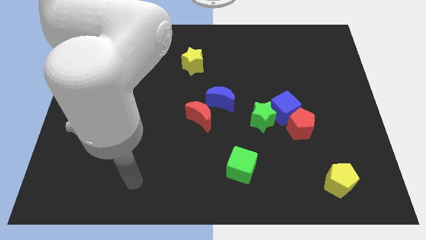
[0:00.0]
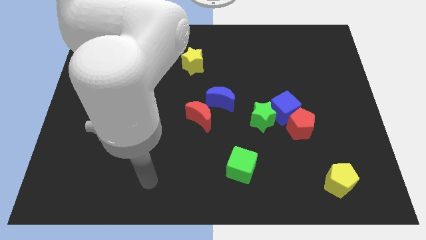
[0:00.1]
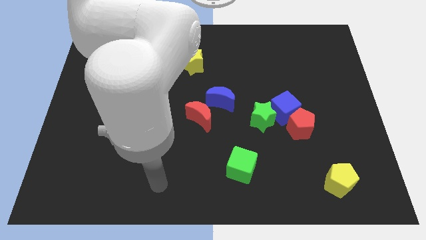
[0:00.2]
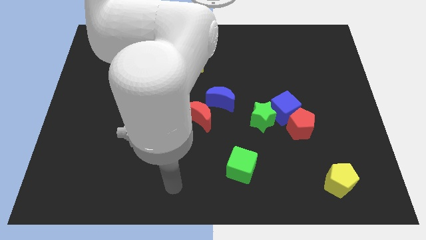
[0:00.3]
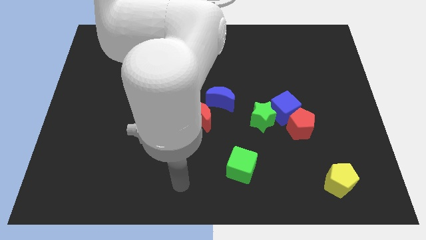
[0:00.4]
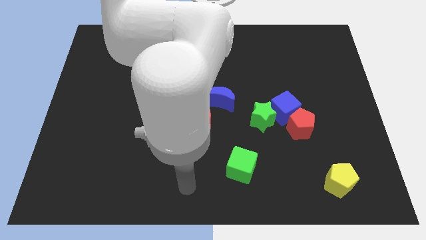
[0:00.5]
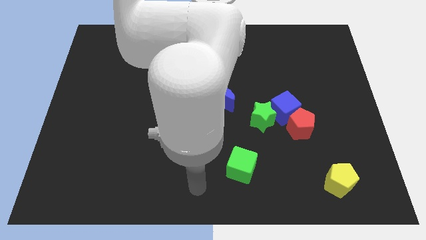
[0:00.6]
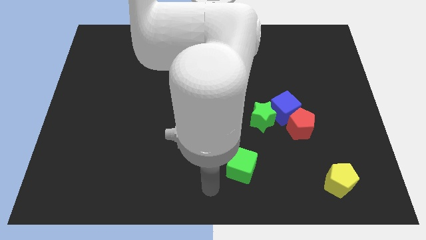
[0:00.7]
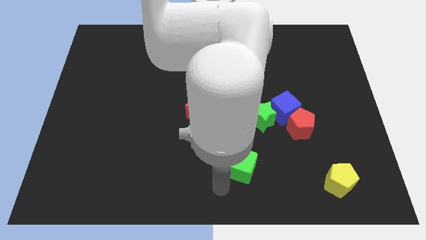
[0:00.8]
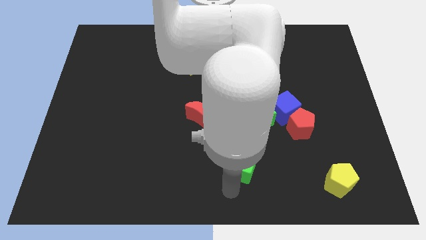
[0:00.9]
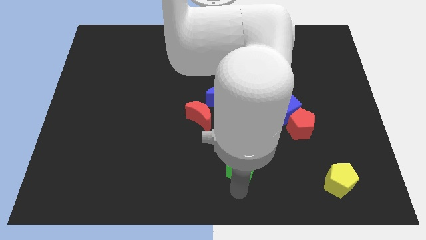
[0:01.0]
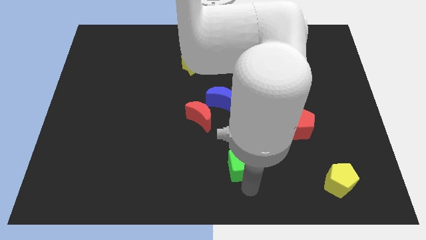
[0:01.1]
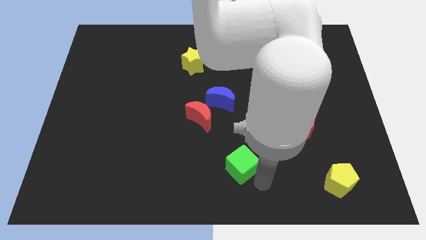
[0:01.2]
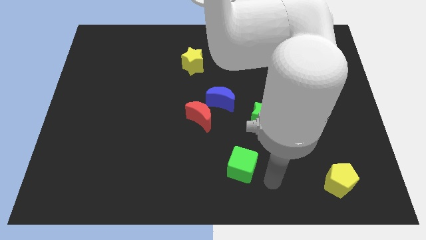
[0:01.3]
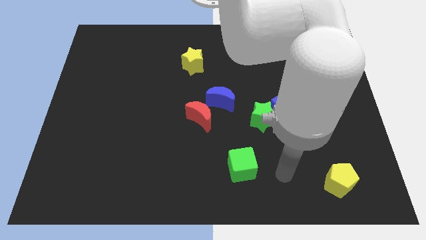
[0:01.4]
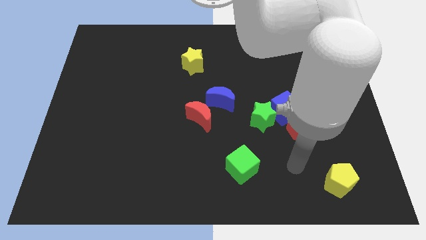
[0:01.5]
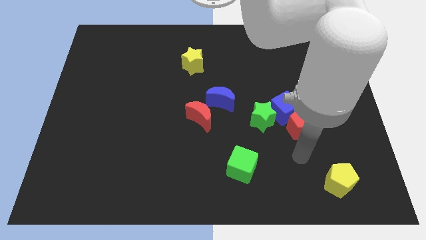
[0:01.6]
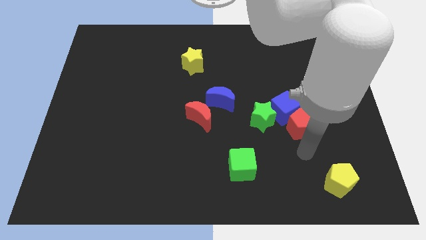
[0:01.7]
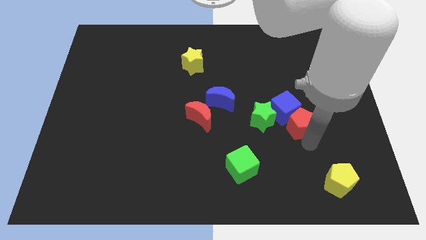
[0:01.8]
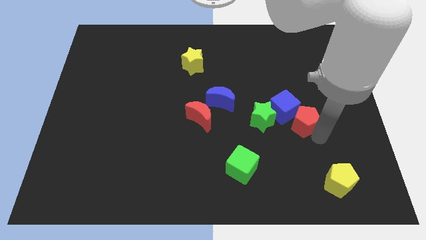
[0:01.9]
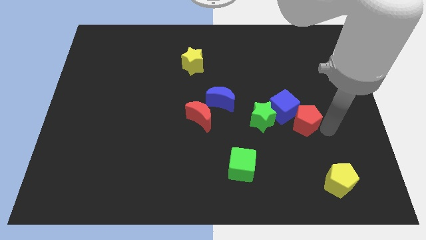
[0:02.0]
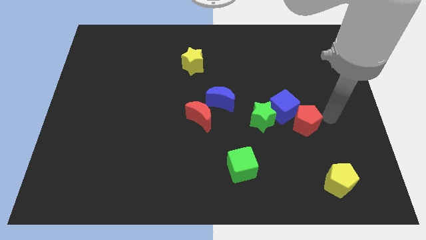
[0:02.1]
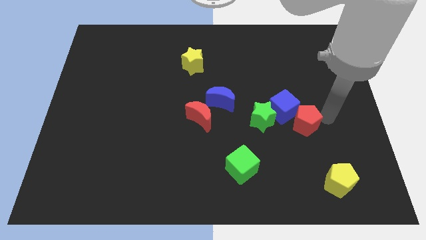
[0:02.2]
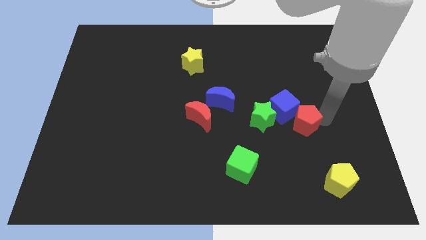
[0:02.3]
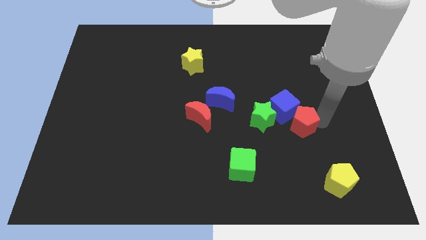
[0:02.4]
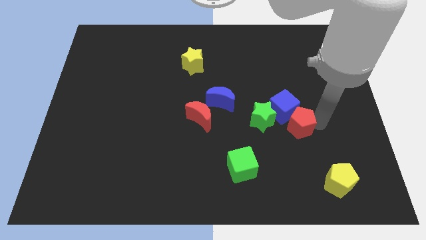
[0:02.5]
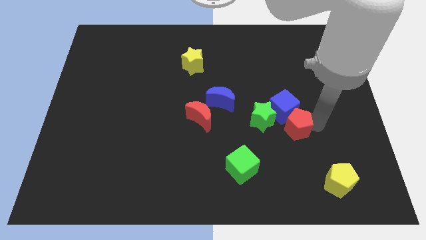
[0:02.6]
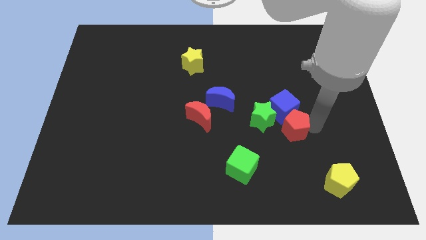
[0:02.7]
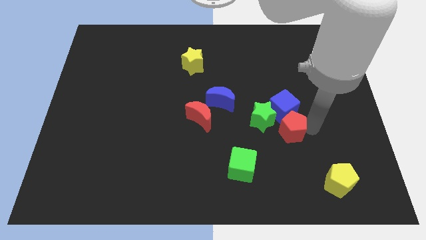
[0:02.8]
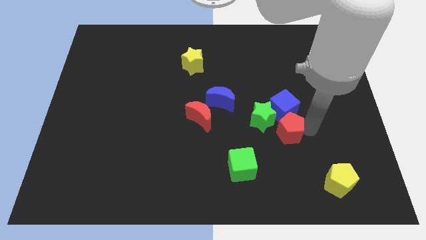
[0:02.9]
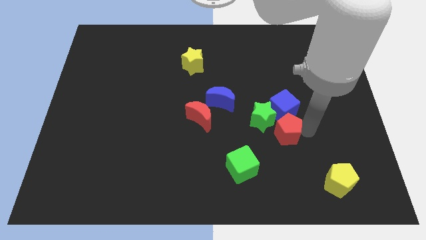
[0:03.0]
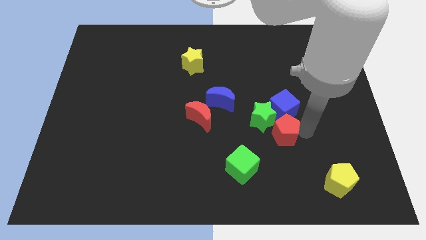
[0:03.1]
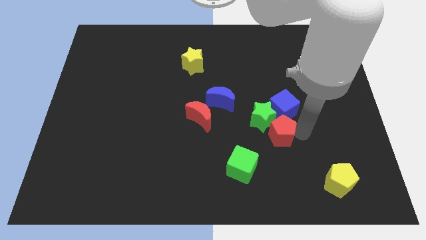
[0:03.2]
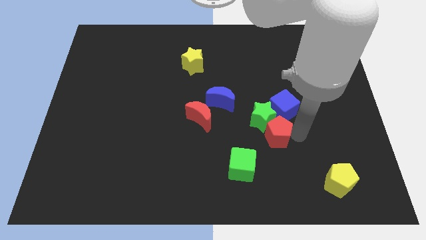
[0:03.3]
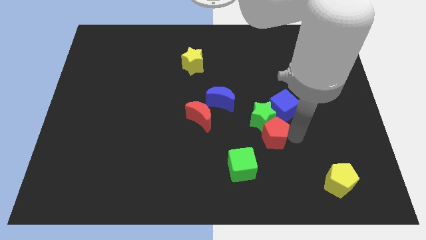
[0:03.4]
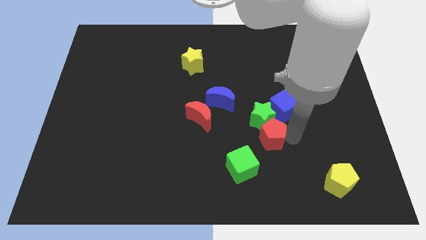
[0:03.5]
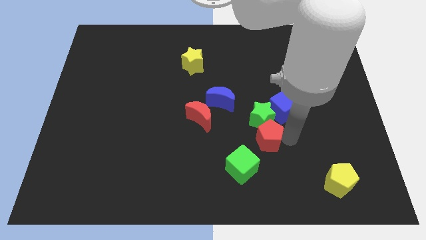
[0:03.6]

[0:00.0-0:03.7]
move the red pentagon to the left a little

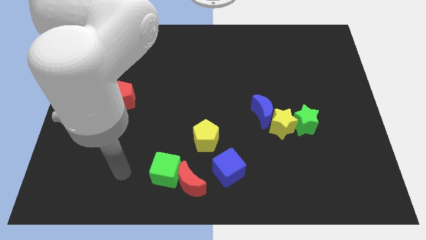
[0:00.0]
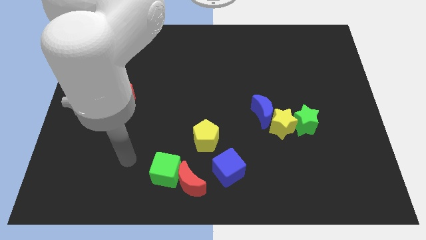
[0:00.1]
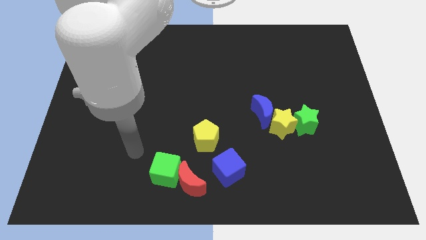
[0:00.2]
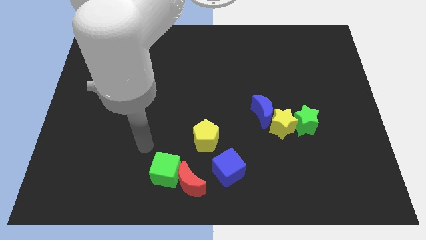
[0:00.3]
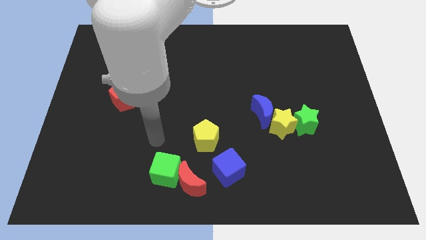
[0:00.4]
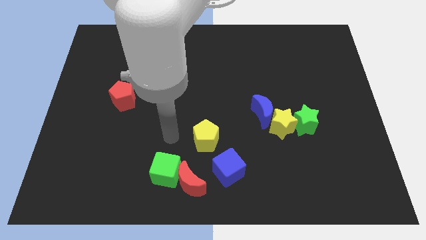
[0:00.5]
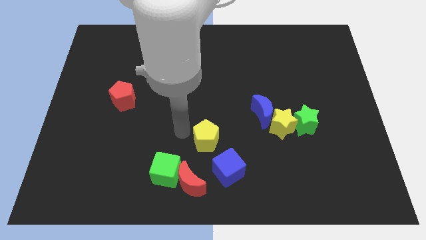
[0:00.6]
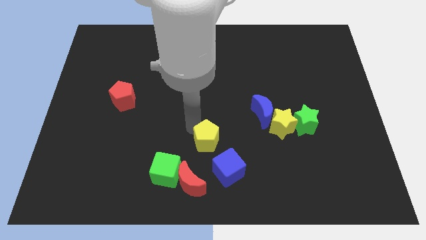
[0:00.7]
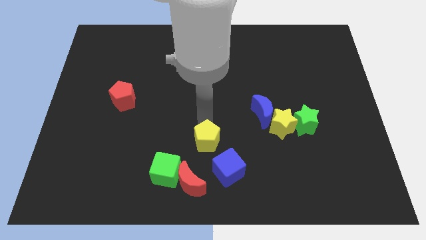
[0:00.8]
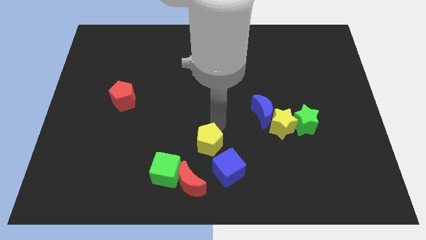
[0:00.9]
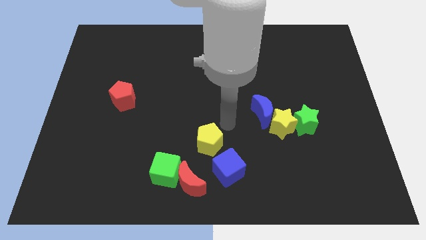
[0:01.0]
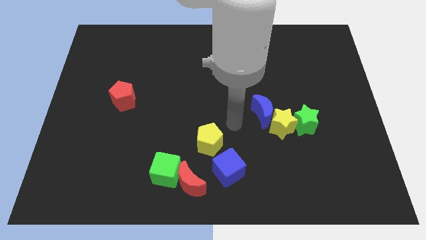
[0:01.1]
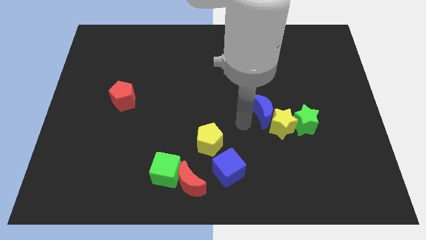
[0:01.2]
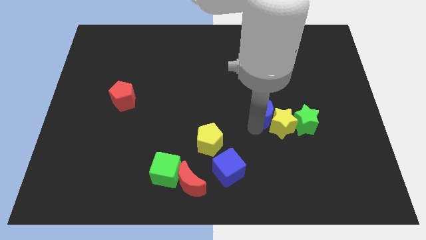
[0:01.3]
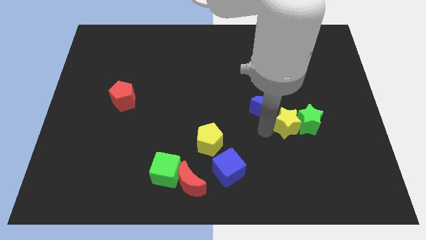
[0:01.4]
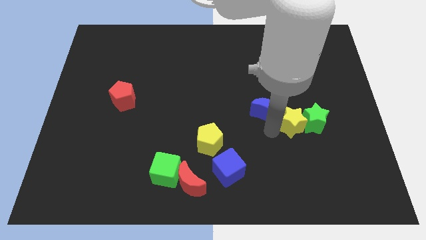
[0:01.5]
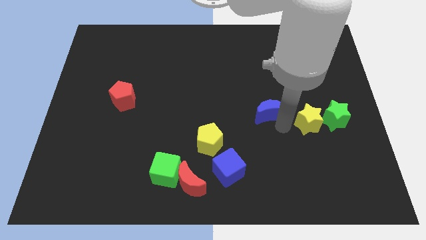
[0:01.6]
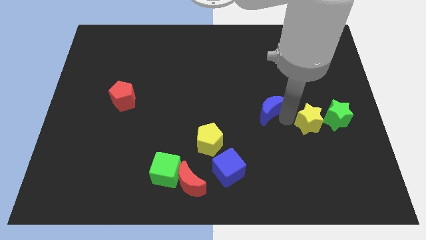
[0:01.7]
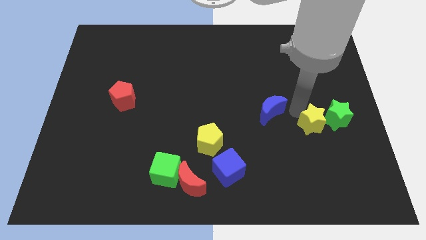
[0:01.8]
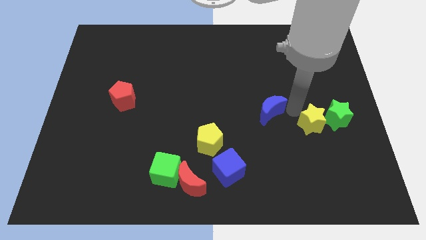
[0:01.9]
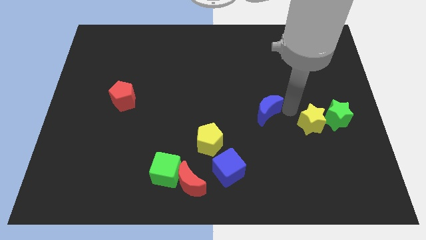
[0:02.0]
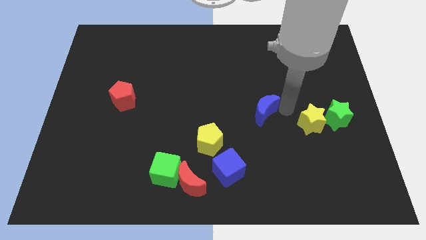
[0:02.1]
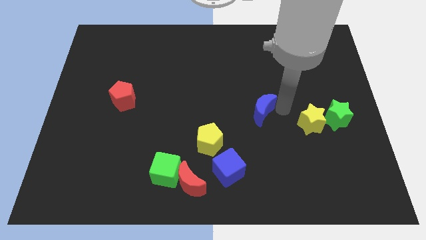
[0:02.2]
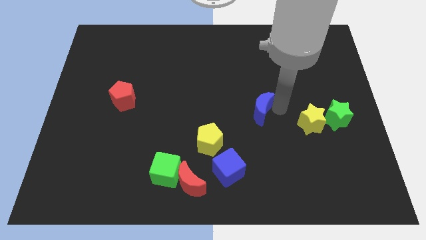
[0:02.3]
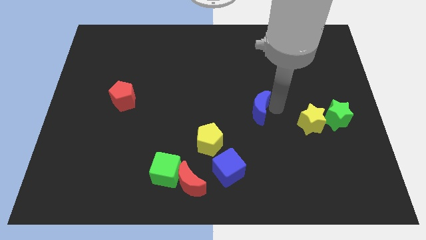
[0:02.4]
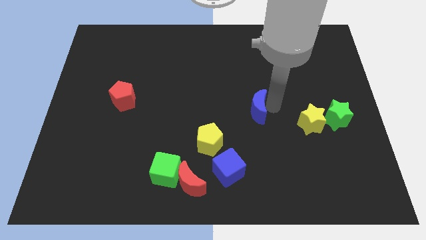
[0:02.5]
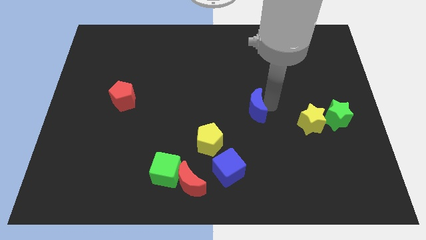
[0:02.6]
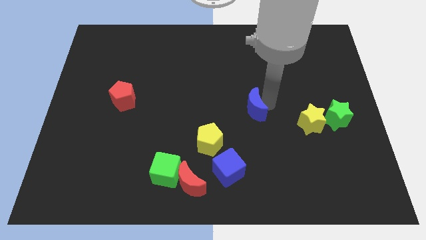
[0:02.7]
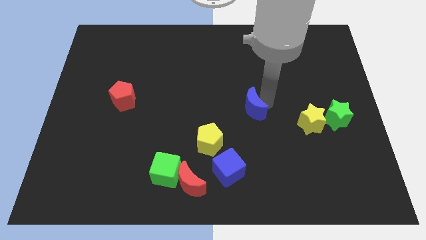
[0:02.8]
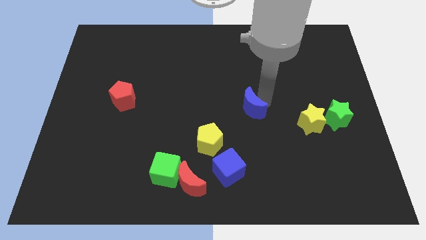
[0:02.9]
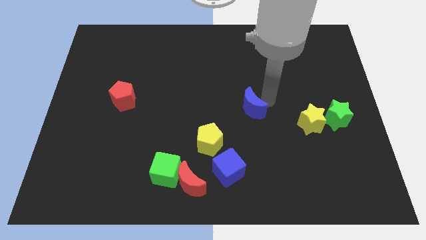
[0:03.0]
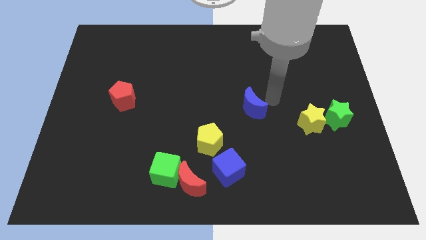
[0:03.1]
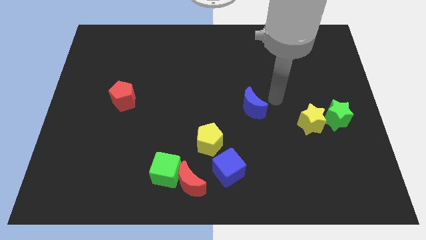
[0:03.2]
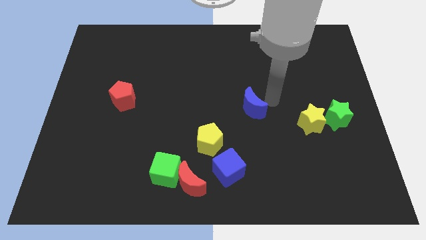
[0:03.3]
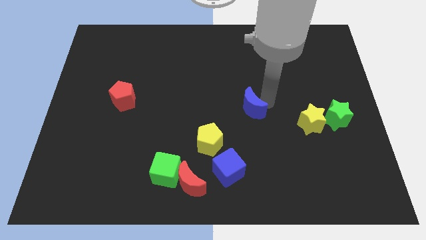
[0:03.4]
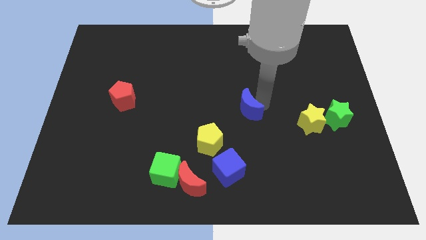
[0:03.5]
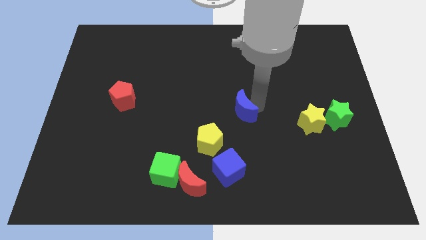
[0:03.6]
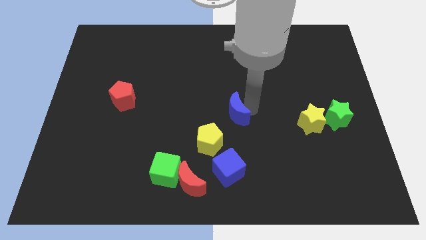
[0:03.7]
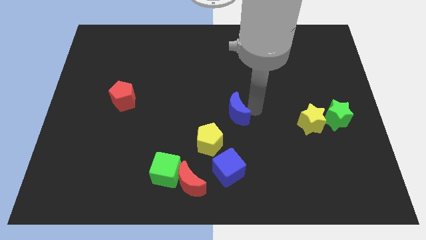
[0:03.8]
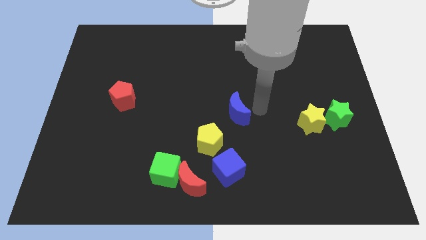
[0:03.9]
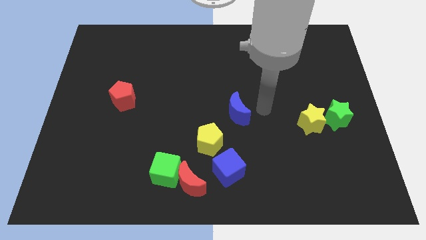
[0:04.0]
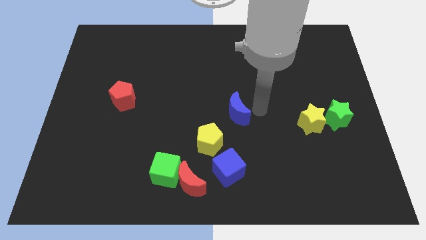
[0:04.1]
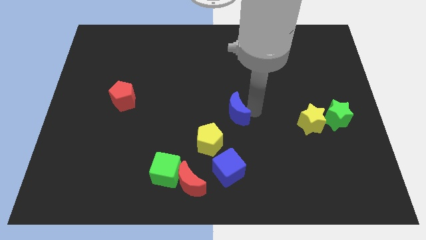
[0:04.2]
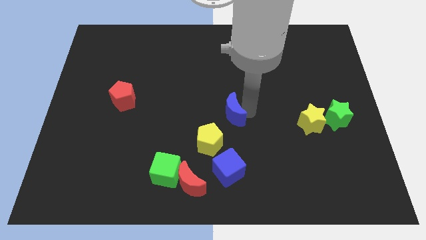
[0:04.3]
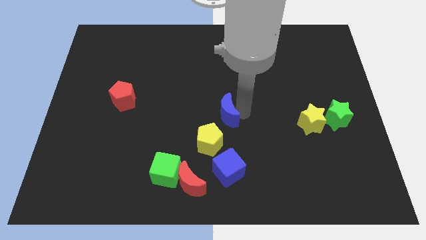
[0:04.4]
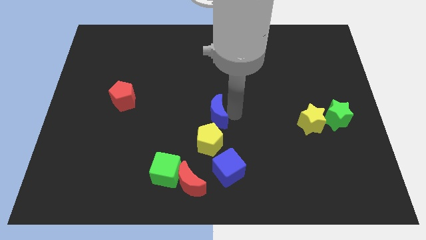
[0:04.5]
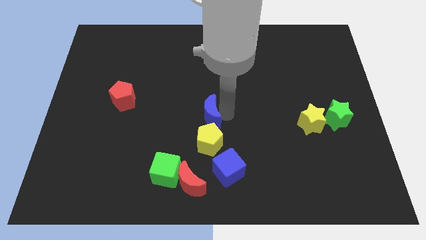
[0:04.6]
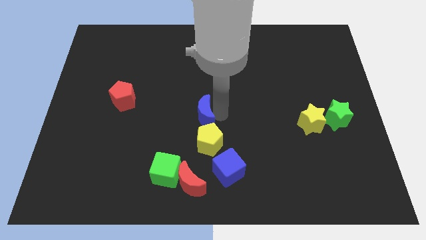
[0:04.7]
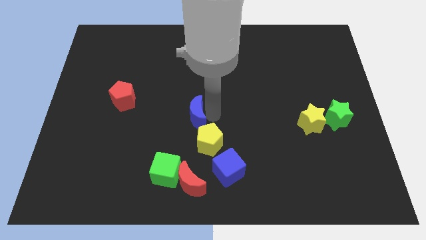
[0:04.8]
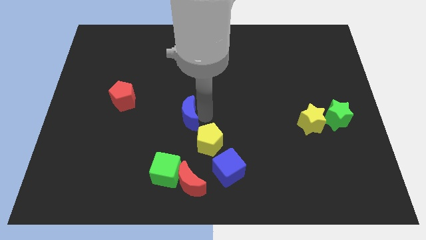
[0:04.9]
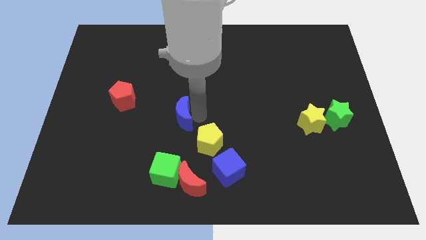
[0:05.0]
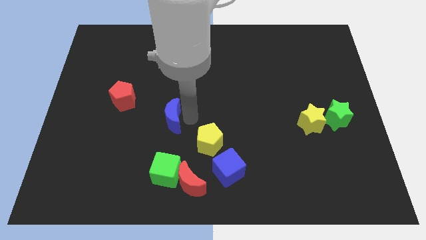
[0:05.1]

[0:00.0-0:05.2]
move the blue moon left
